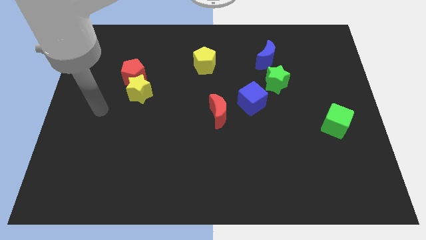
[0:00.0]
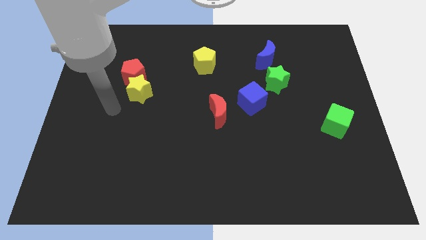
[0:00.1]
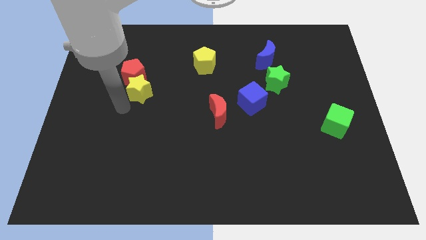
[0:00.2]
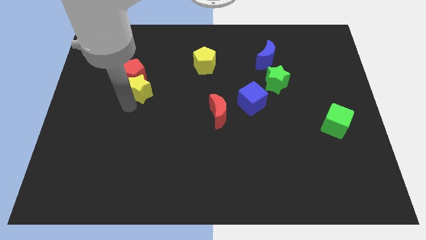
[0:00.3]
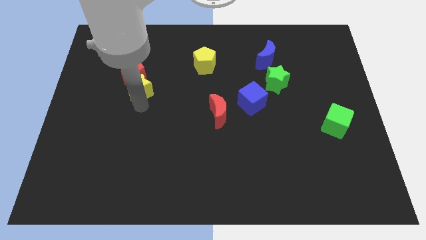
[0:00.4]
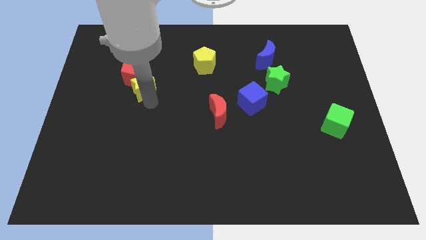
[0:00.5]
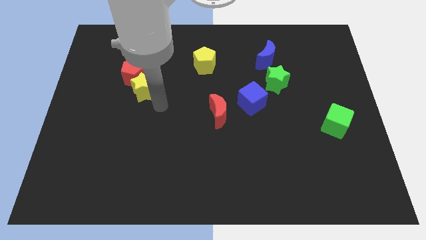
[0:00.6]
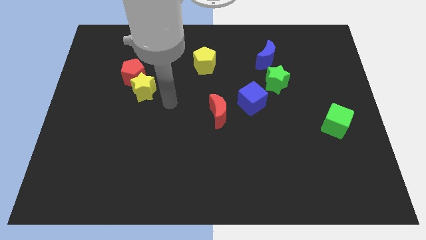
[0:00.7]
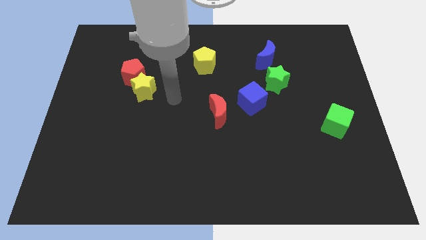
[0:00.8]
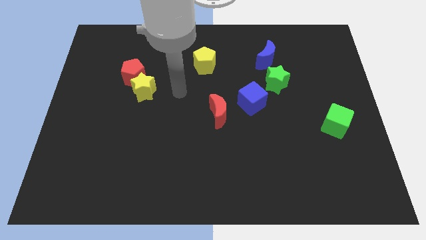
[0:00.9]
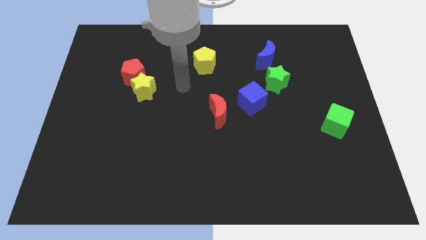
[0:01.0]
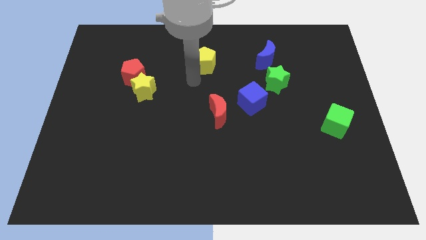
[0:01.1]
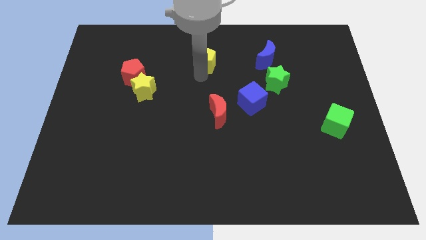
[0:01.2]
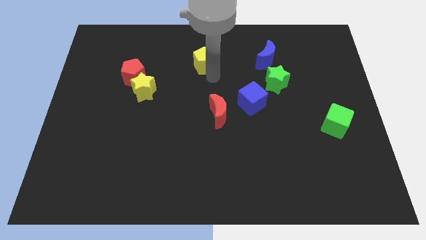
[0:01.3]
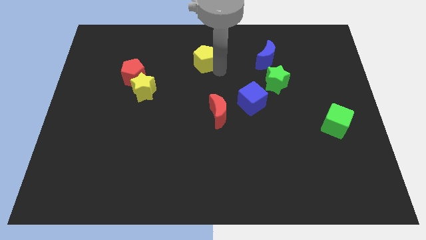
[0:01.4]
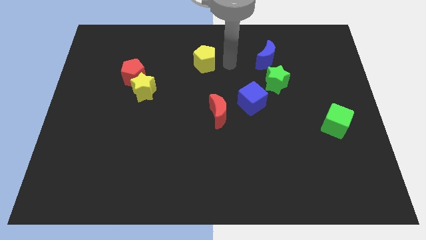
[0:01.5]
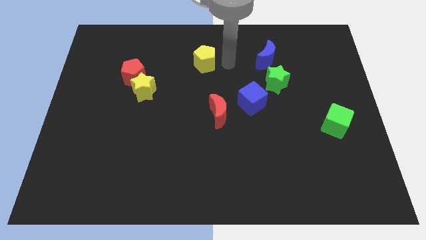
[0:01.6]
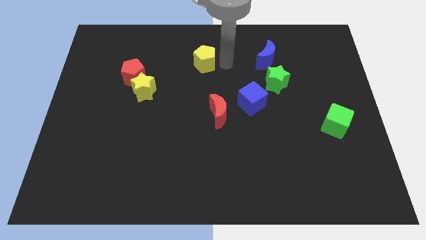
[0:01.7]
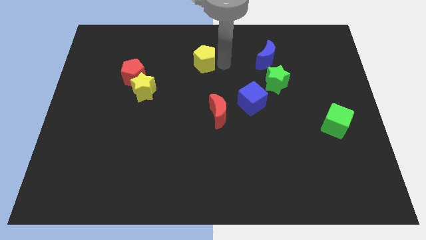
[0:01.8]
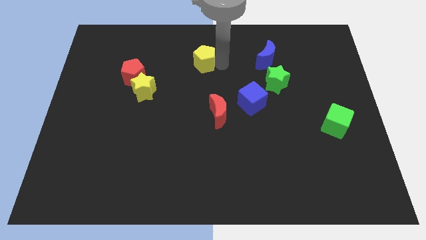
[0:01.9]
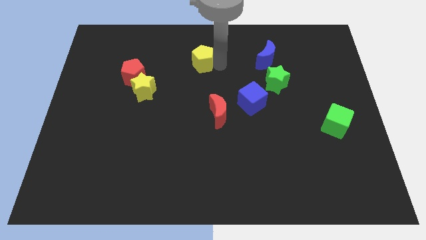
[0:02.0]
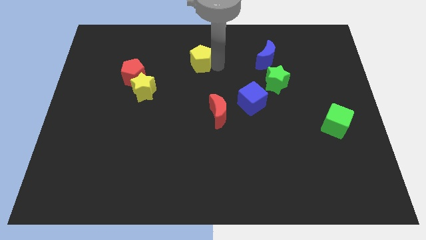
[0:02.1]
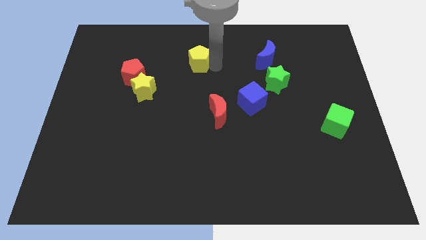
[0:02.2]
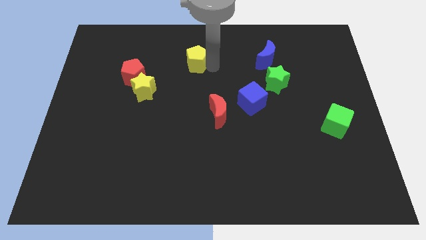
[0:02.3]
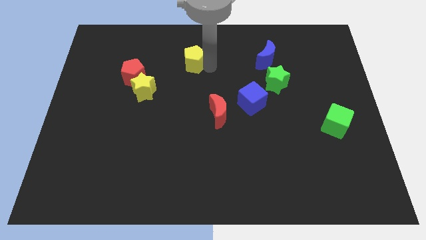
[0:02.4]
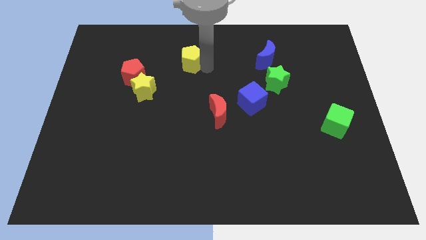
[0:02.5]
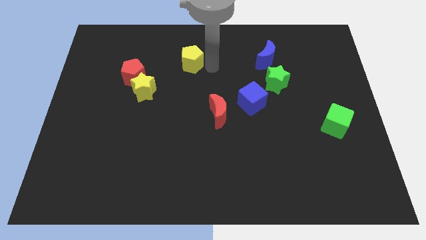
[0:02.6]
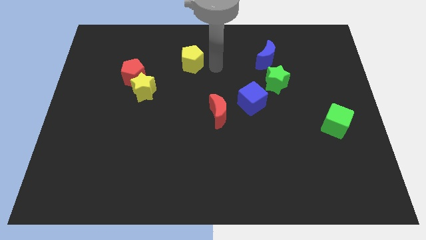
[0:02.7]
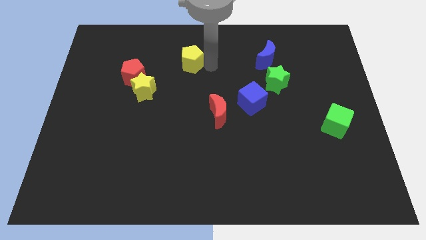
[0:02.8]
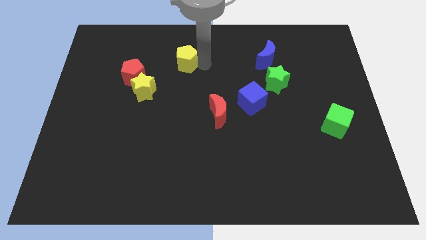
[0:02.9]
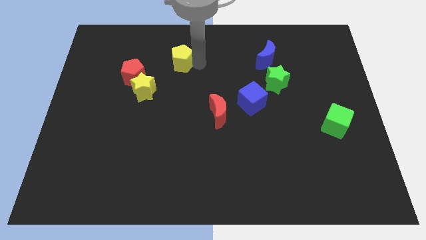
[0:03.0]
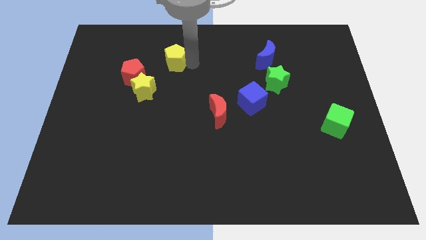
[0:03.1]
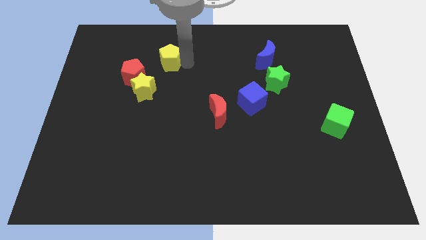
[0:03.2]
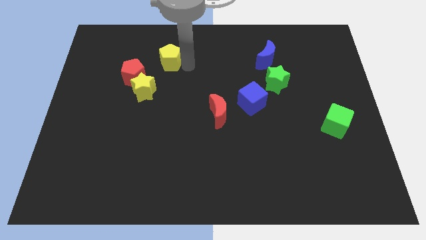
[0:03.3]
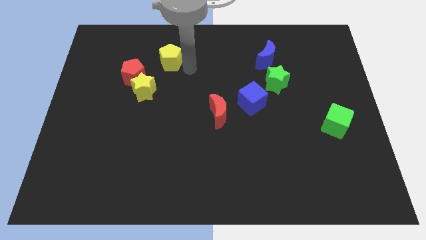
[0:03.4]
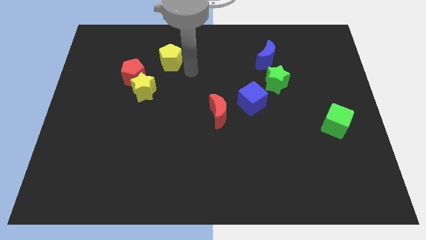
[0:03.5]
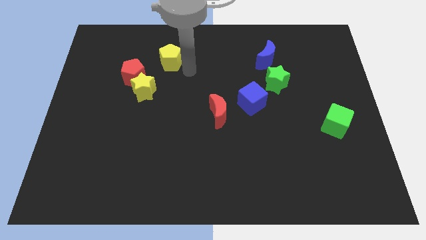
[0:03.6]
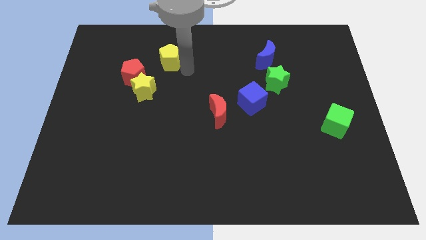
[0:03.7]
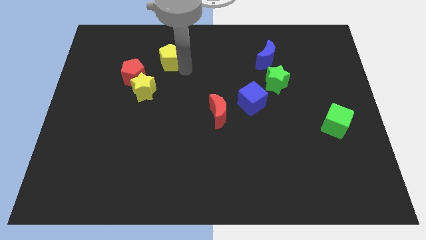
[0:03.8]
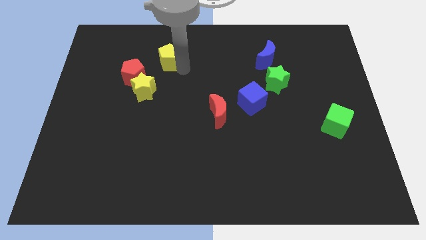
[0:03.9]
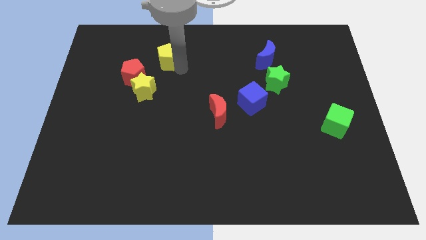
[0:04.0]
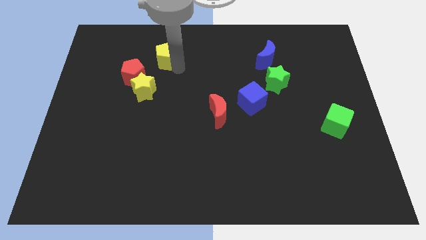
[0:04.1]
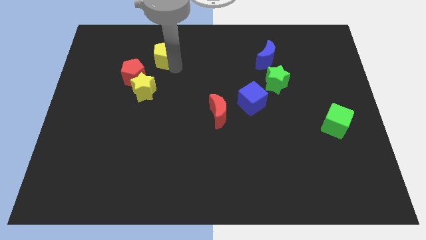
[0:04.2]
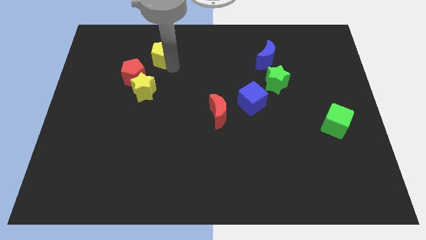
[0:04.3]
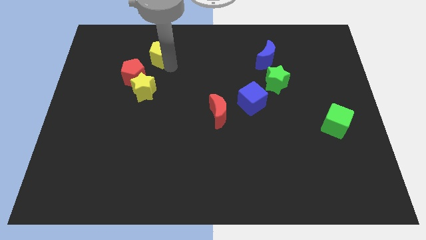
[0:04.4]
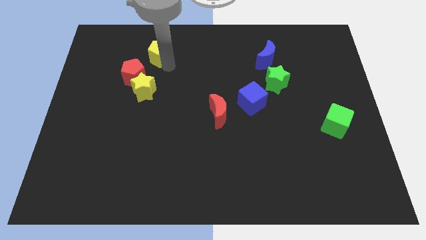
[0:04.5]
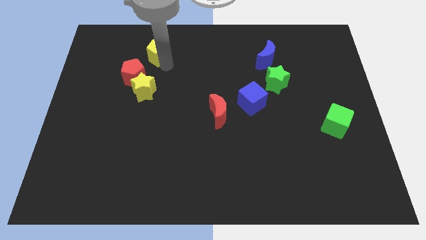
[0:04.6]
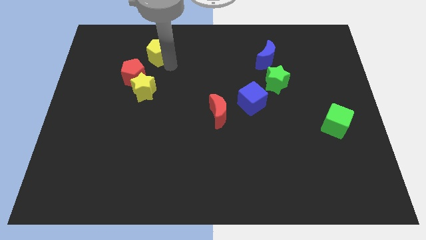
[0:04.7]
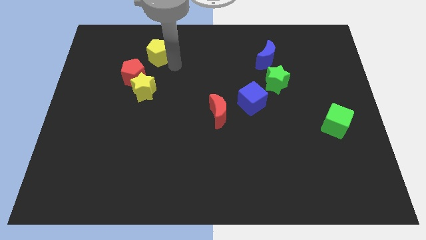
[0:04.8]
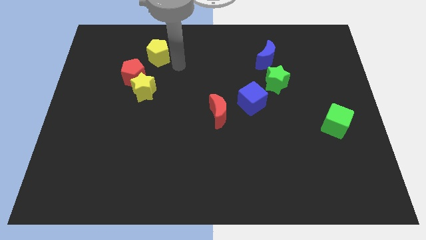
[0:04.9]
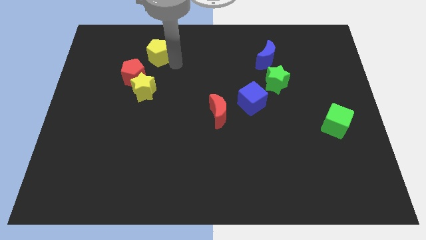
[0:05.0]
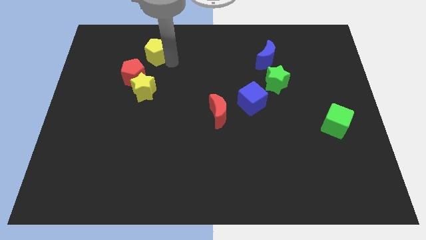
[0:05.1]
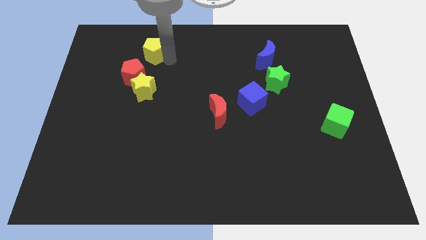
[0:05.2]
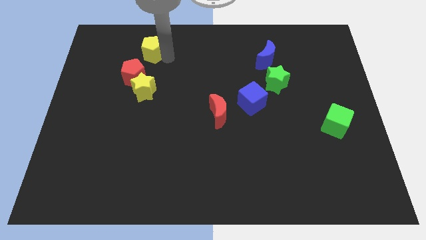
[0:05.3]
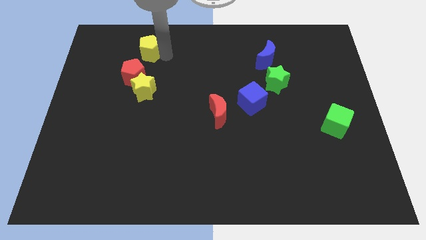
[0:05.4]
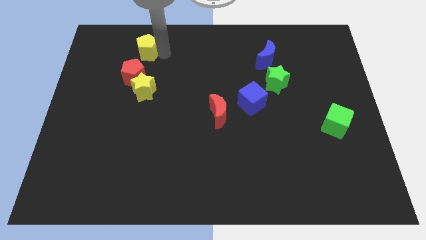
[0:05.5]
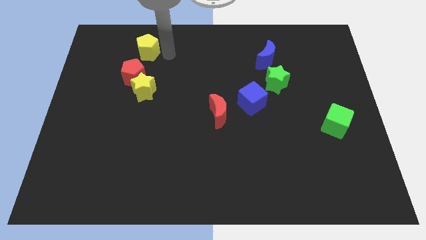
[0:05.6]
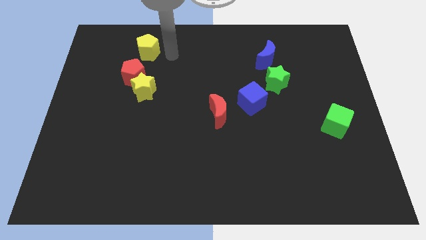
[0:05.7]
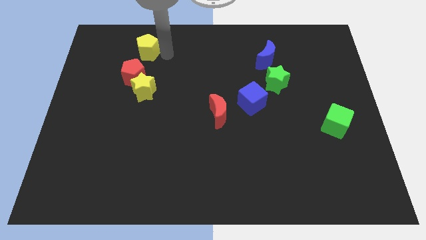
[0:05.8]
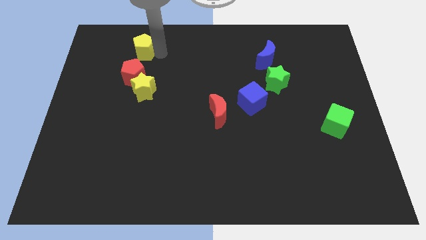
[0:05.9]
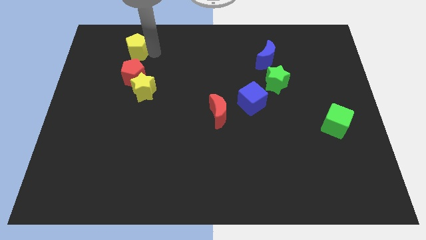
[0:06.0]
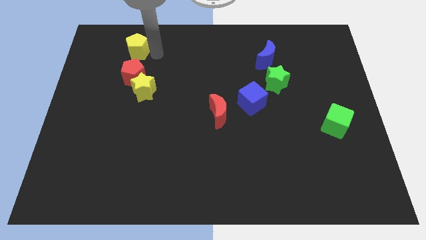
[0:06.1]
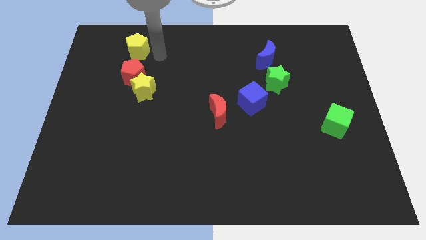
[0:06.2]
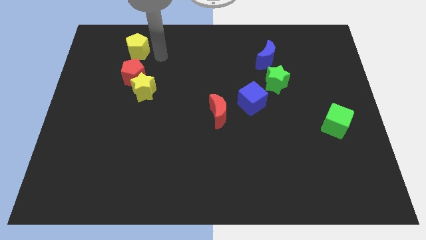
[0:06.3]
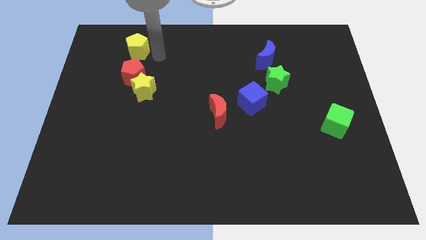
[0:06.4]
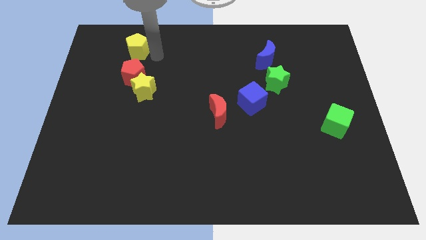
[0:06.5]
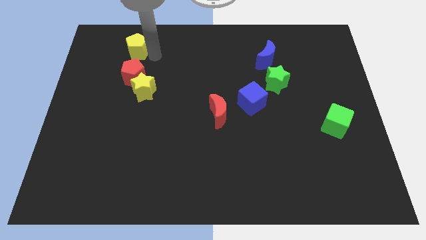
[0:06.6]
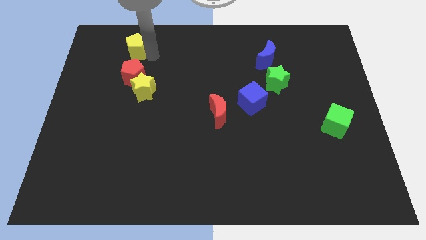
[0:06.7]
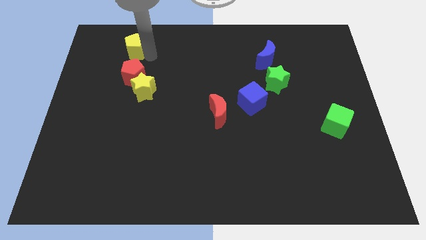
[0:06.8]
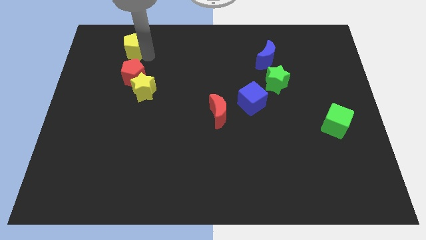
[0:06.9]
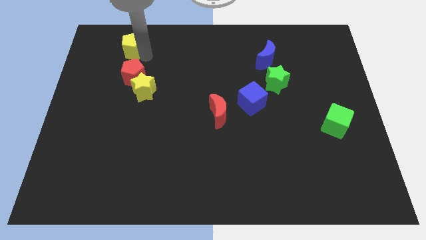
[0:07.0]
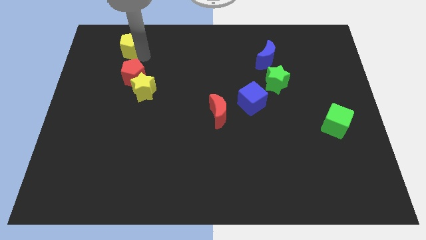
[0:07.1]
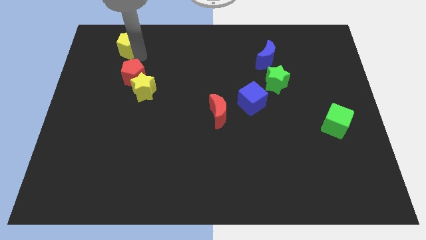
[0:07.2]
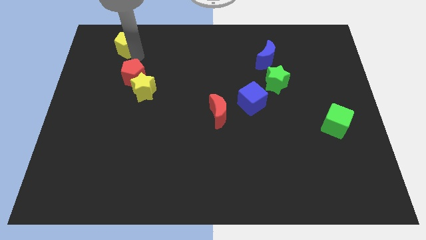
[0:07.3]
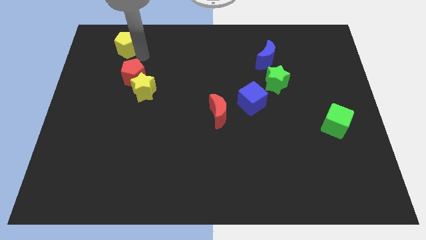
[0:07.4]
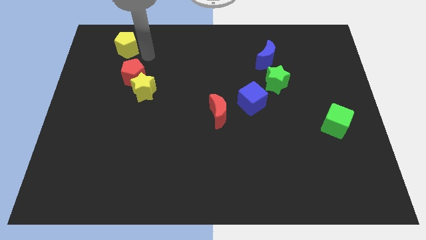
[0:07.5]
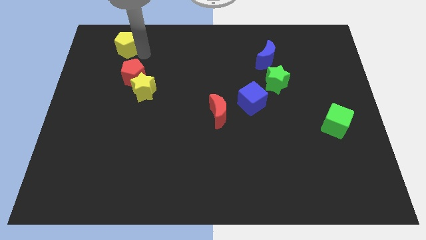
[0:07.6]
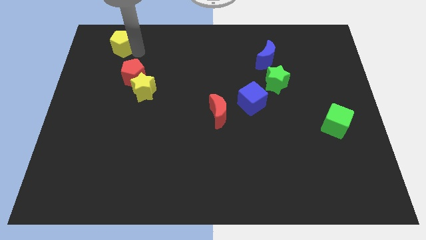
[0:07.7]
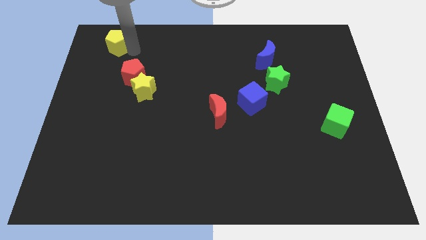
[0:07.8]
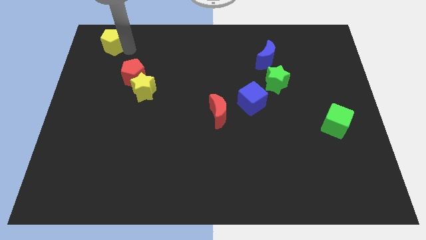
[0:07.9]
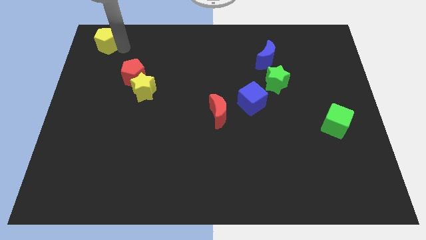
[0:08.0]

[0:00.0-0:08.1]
put the yellow pentagon to the top left
